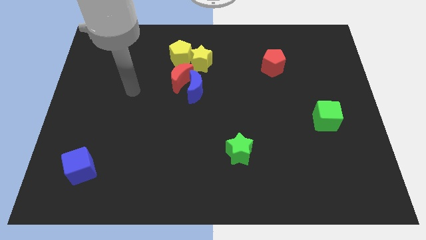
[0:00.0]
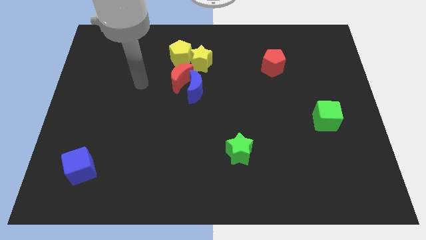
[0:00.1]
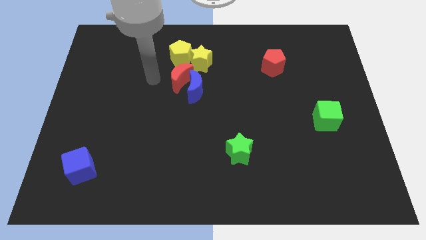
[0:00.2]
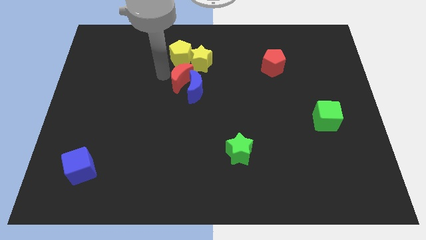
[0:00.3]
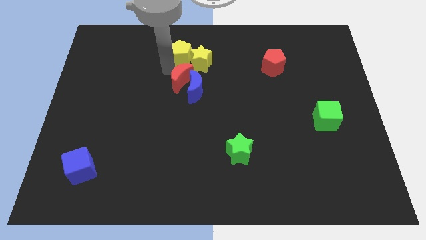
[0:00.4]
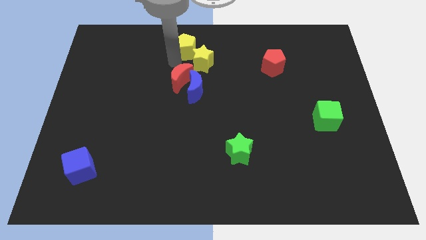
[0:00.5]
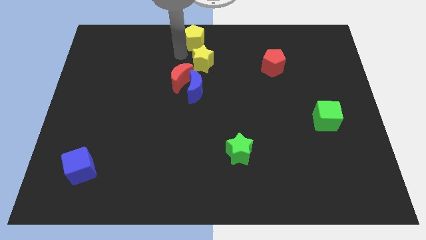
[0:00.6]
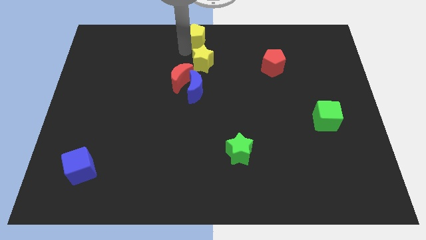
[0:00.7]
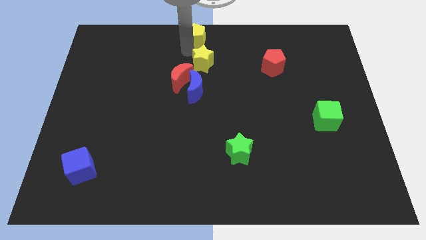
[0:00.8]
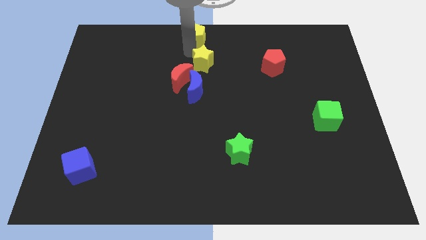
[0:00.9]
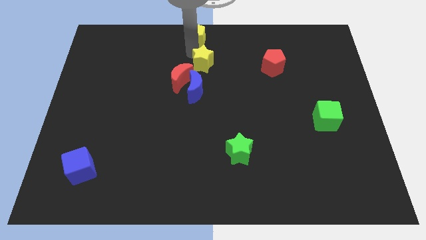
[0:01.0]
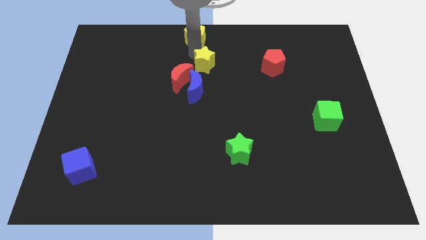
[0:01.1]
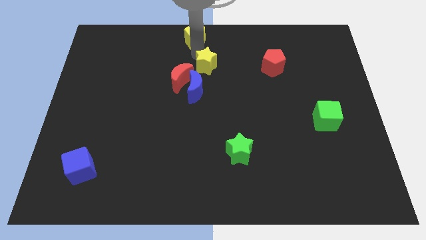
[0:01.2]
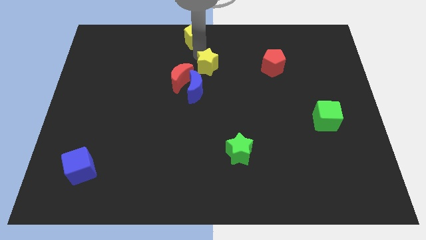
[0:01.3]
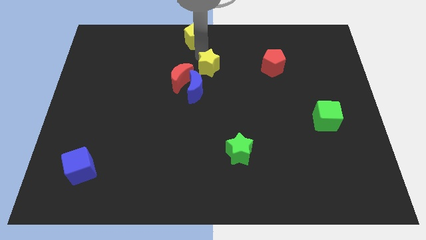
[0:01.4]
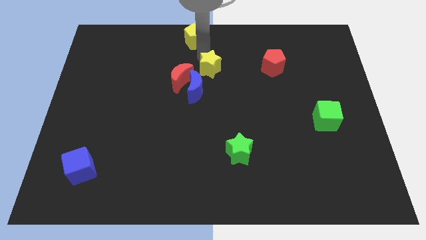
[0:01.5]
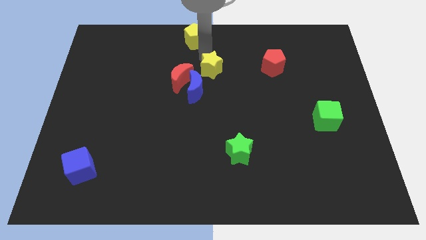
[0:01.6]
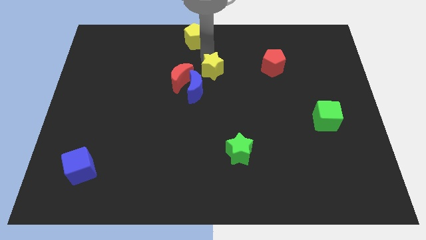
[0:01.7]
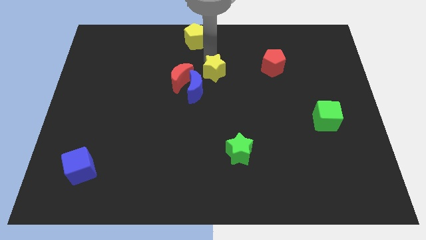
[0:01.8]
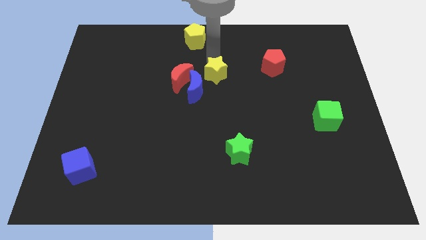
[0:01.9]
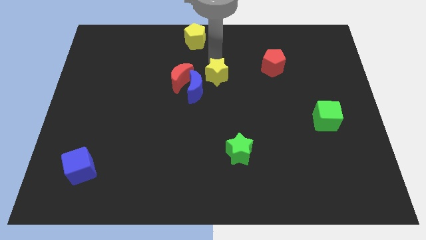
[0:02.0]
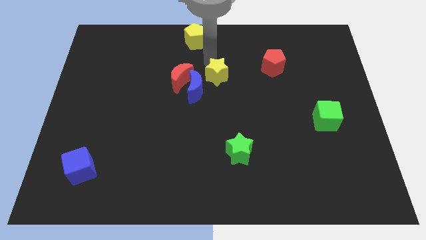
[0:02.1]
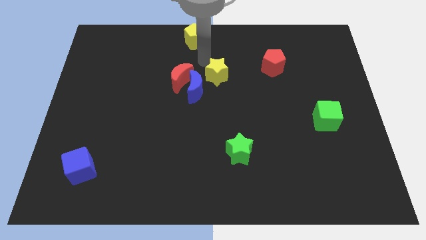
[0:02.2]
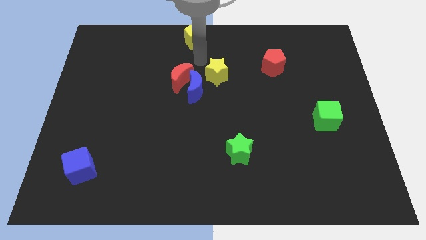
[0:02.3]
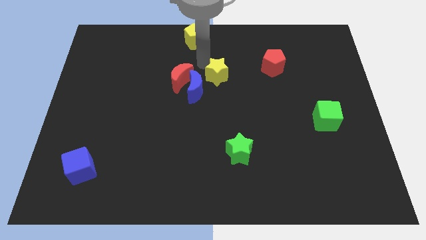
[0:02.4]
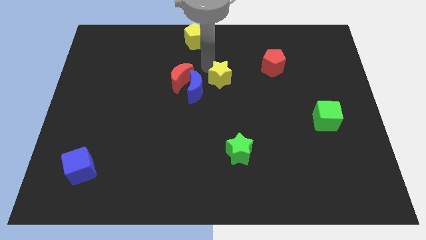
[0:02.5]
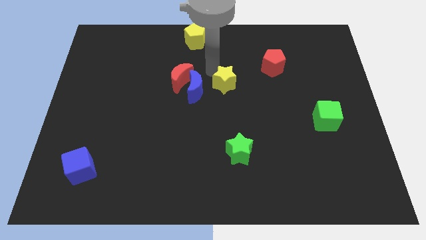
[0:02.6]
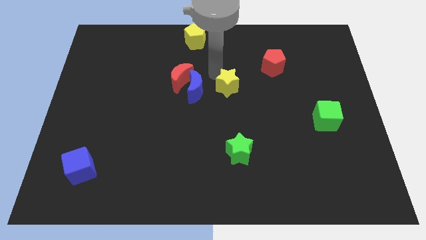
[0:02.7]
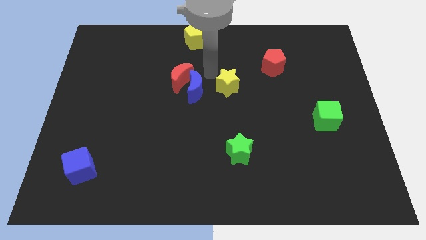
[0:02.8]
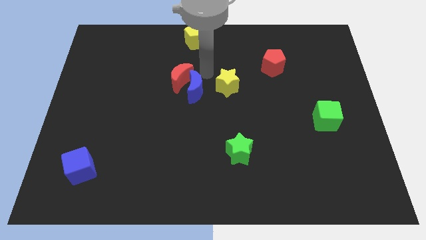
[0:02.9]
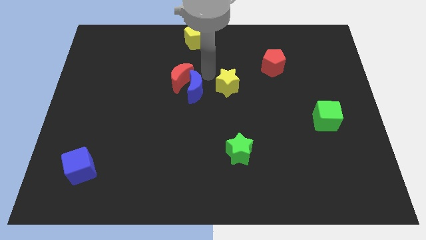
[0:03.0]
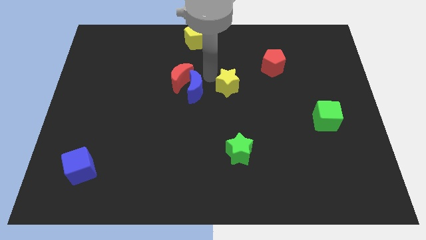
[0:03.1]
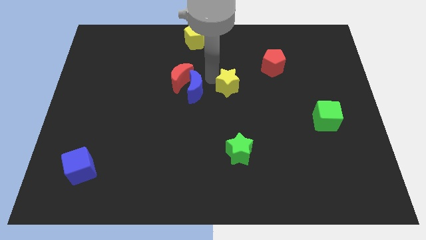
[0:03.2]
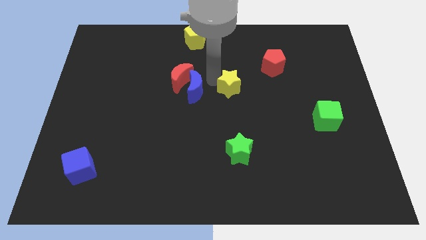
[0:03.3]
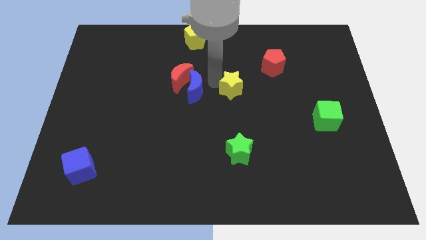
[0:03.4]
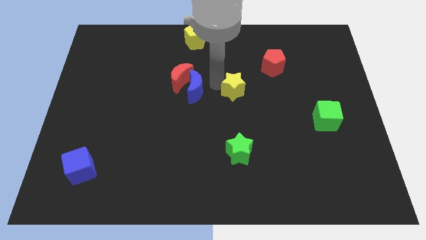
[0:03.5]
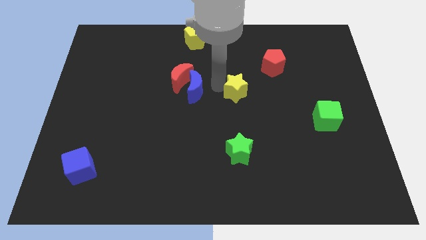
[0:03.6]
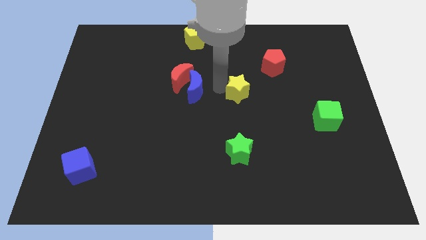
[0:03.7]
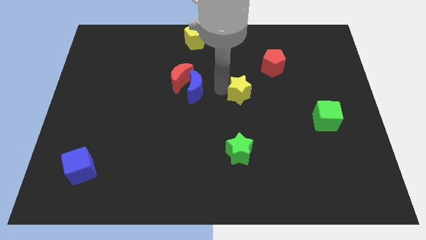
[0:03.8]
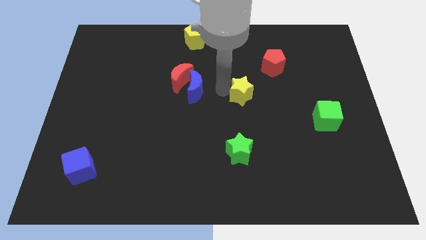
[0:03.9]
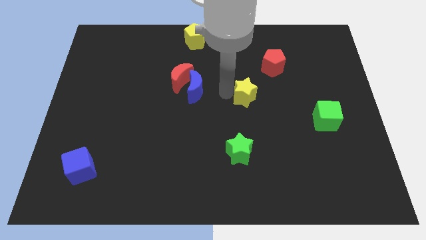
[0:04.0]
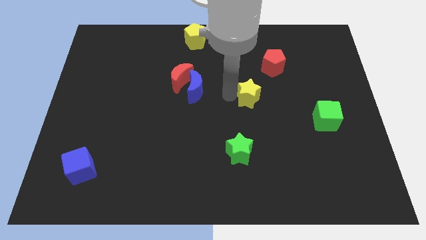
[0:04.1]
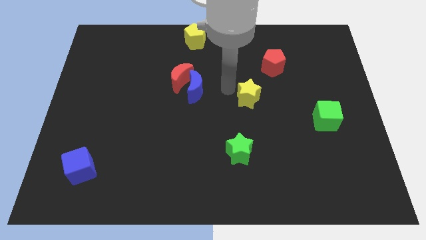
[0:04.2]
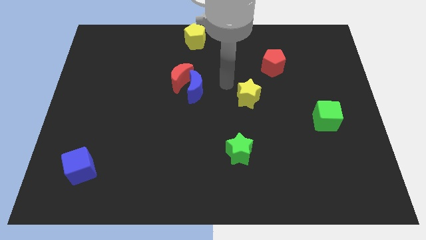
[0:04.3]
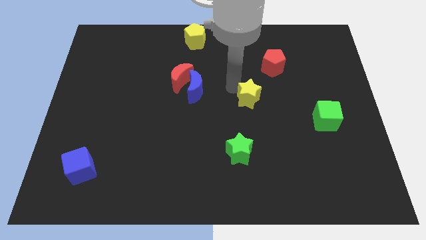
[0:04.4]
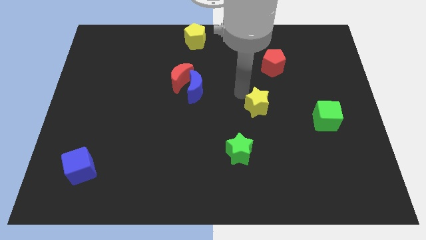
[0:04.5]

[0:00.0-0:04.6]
move the yellow star diagonally down and to the right
